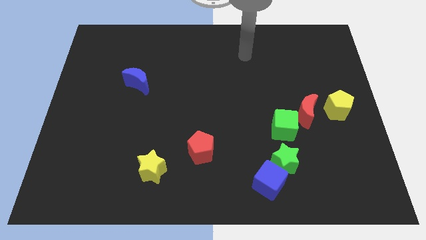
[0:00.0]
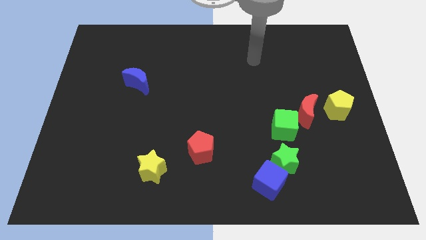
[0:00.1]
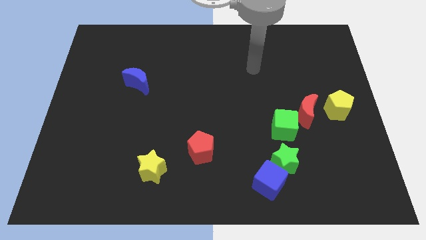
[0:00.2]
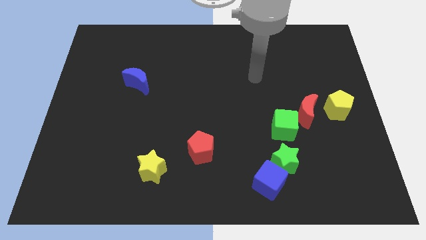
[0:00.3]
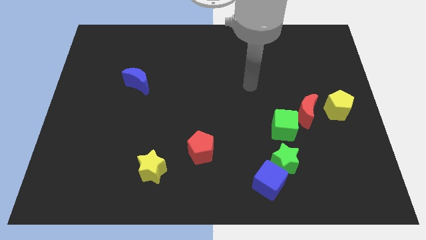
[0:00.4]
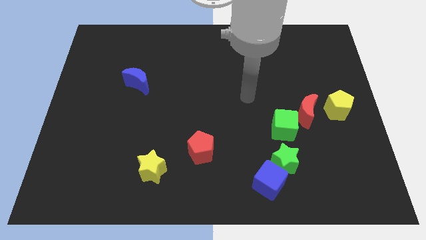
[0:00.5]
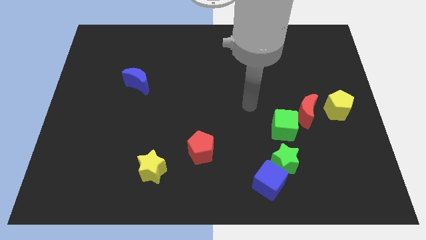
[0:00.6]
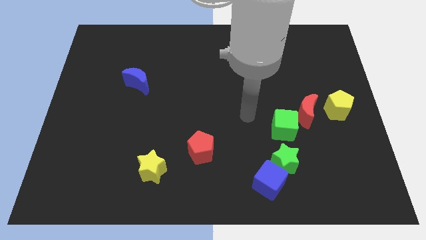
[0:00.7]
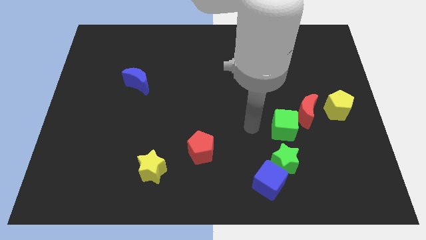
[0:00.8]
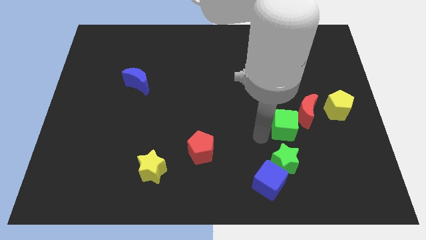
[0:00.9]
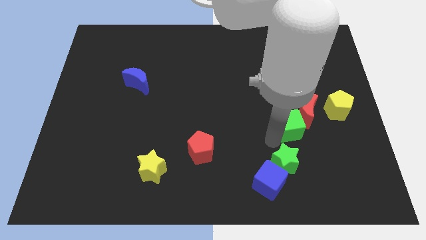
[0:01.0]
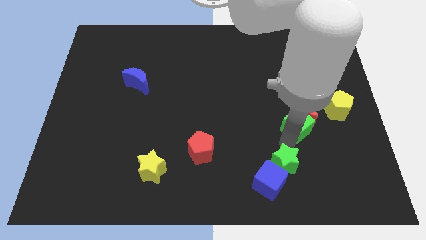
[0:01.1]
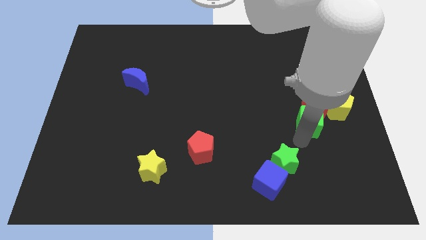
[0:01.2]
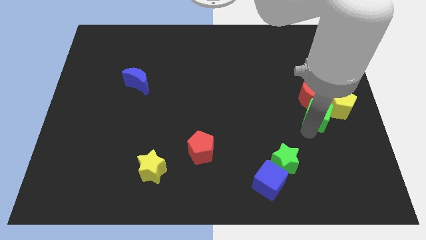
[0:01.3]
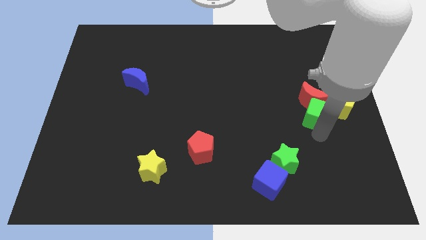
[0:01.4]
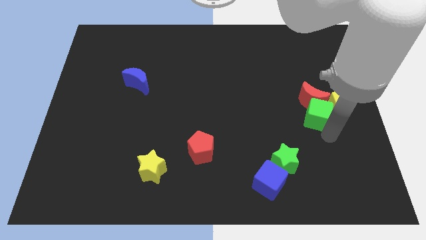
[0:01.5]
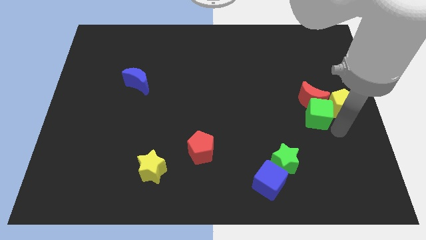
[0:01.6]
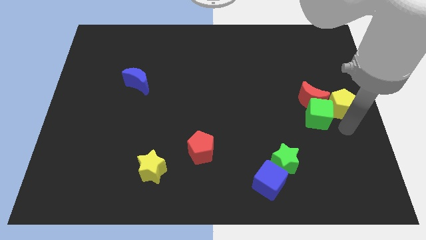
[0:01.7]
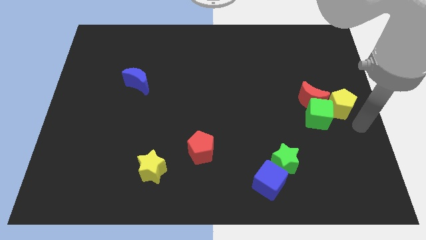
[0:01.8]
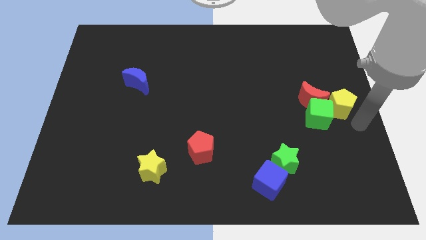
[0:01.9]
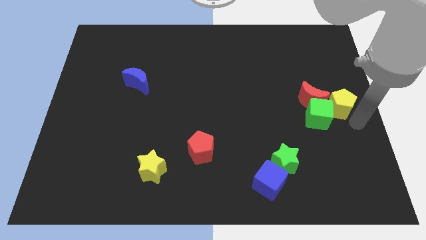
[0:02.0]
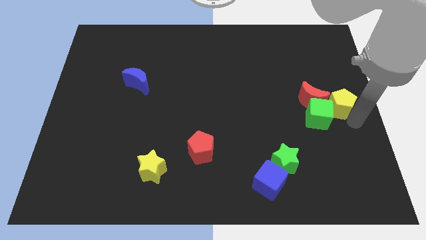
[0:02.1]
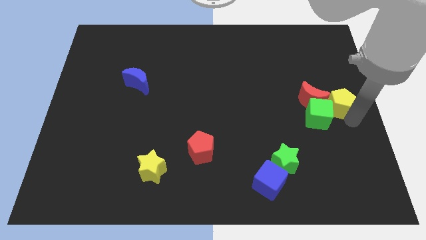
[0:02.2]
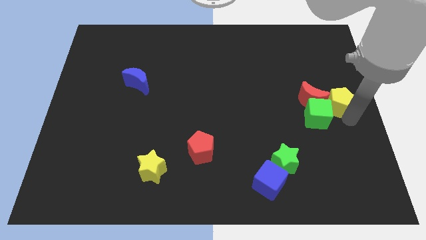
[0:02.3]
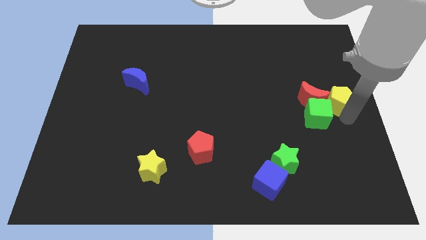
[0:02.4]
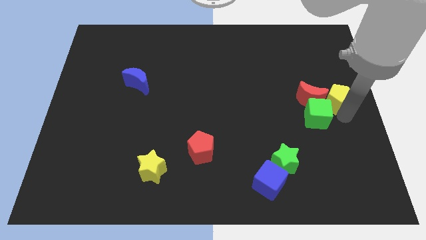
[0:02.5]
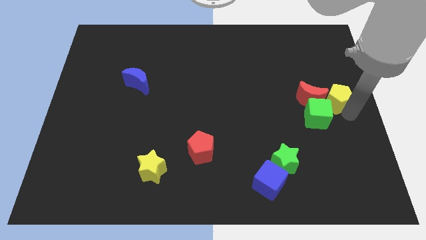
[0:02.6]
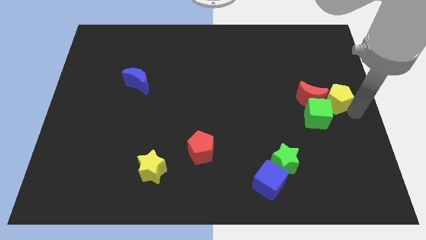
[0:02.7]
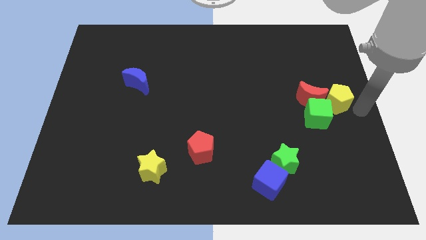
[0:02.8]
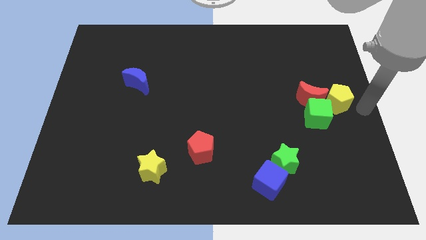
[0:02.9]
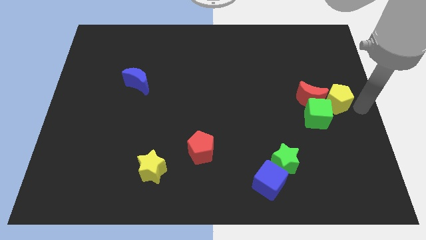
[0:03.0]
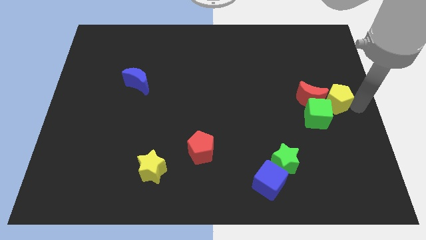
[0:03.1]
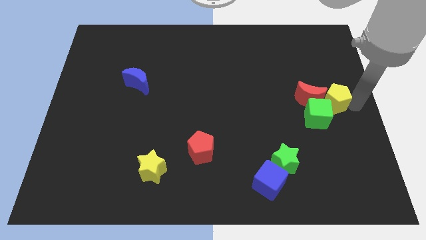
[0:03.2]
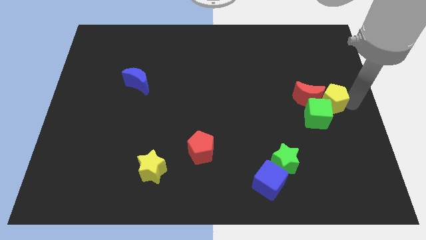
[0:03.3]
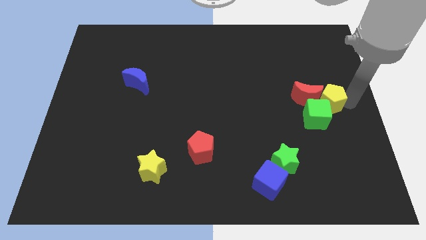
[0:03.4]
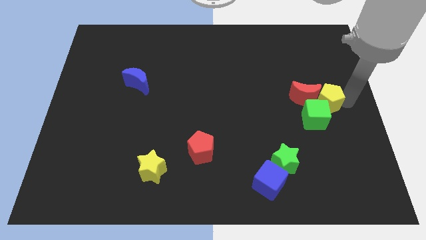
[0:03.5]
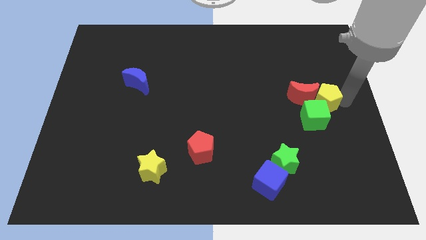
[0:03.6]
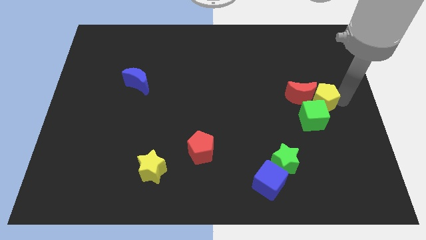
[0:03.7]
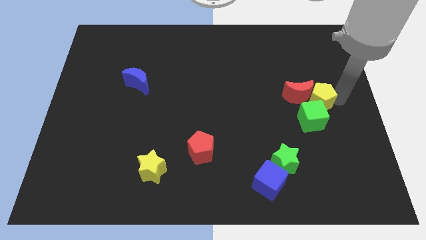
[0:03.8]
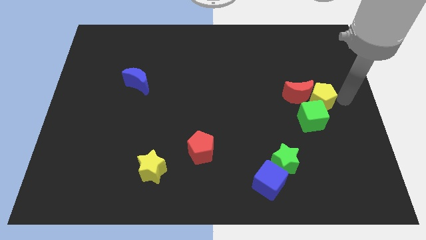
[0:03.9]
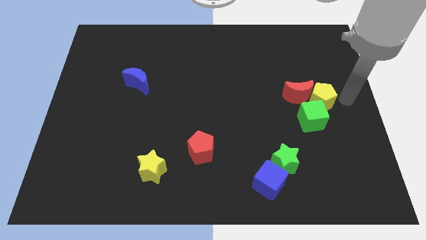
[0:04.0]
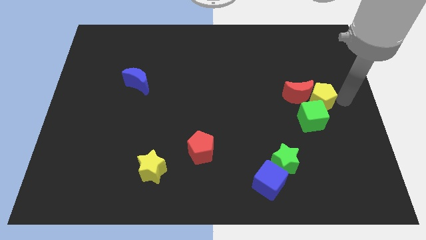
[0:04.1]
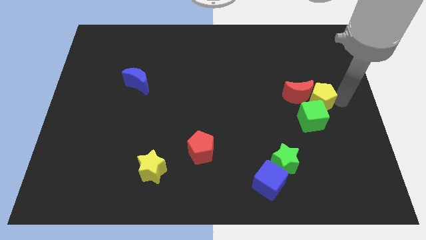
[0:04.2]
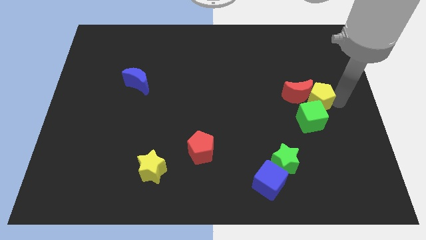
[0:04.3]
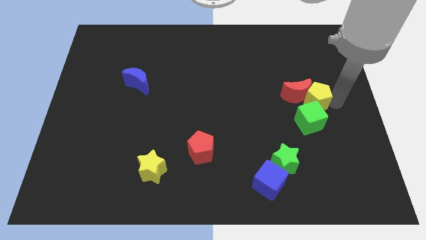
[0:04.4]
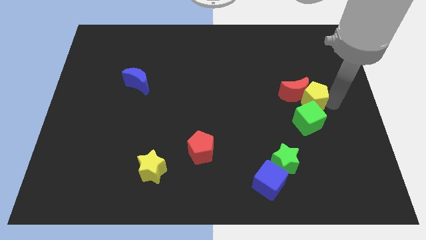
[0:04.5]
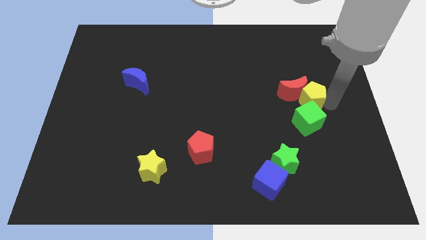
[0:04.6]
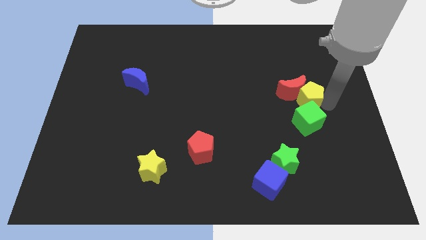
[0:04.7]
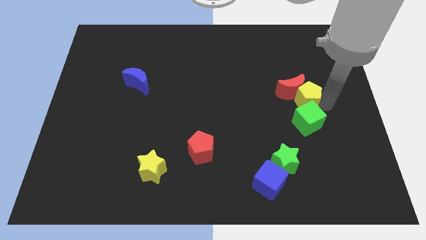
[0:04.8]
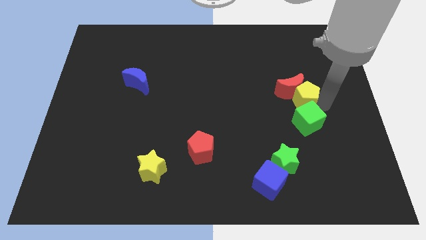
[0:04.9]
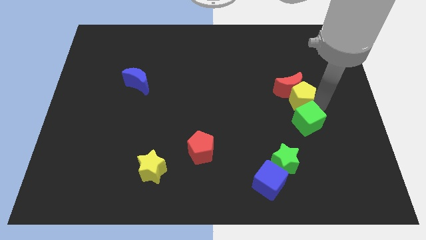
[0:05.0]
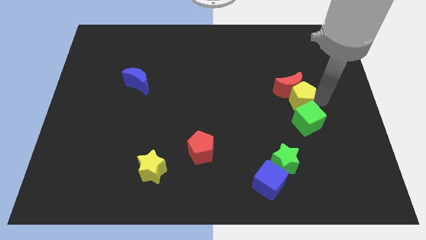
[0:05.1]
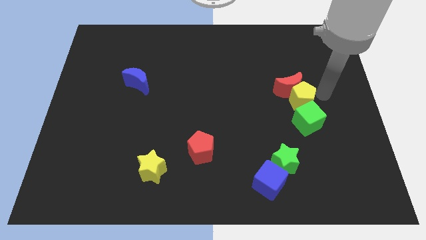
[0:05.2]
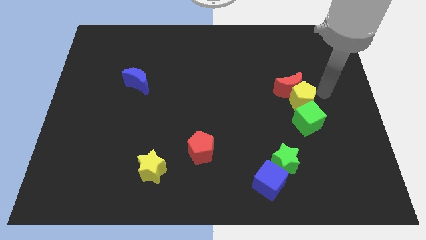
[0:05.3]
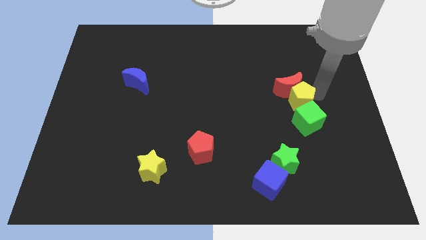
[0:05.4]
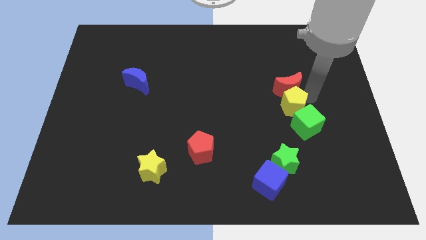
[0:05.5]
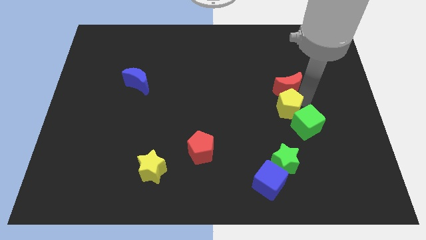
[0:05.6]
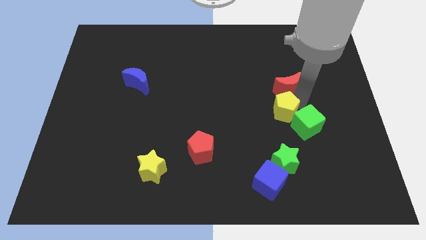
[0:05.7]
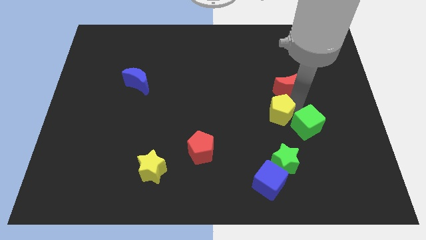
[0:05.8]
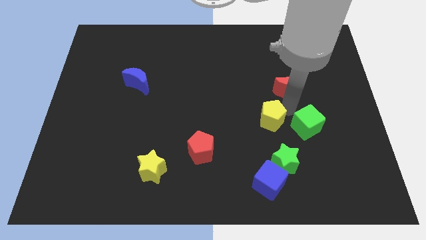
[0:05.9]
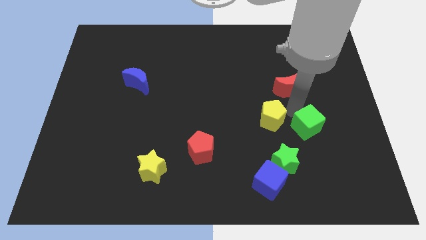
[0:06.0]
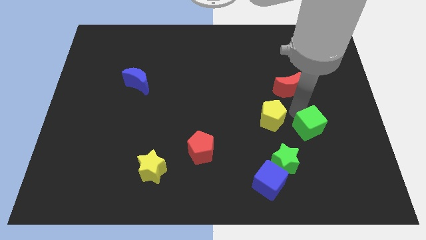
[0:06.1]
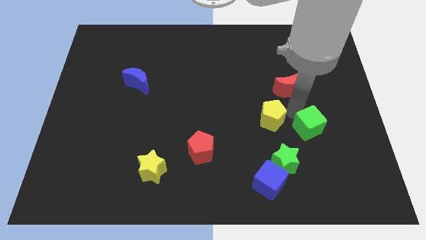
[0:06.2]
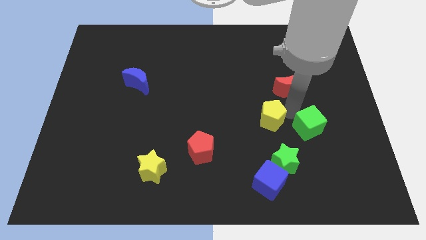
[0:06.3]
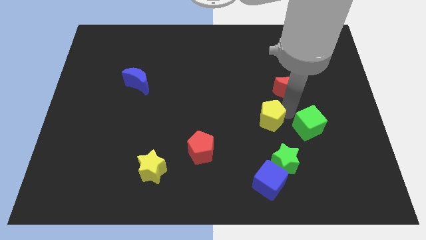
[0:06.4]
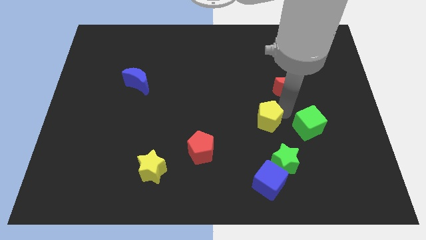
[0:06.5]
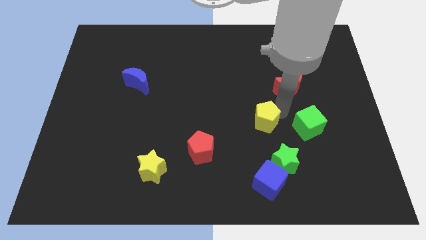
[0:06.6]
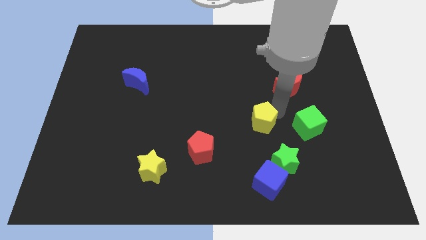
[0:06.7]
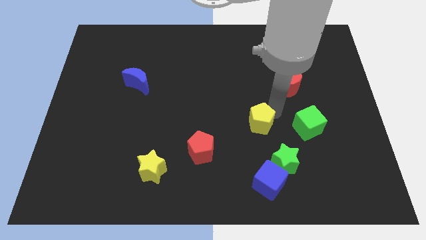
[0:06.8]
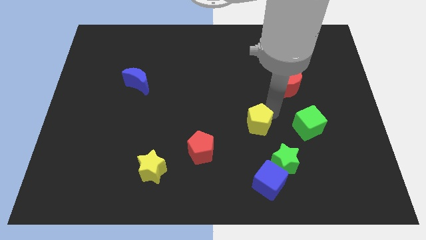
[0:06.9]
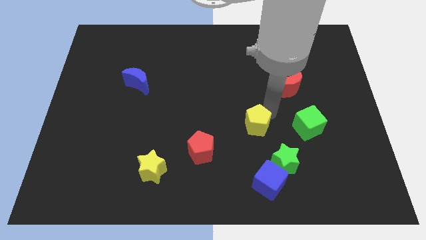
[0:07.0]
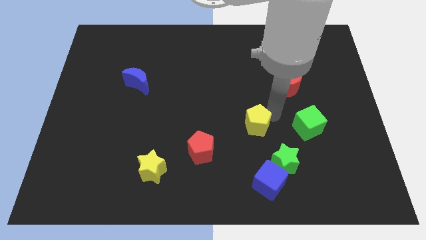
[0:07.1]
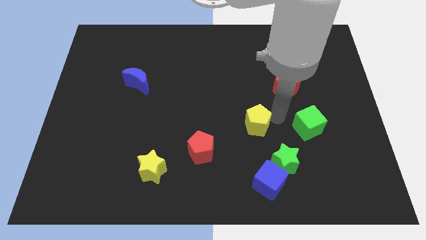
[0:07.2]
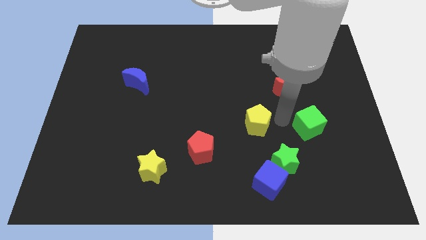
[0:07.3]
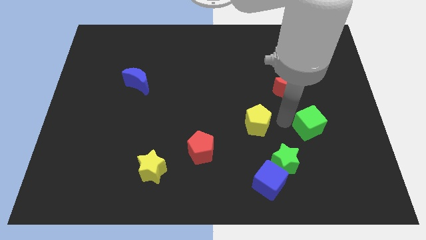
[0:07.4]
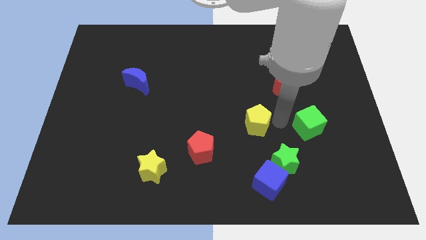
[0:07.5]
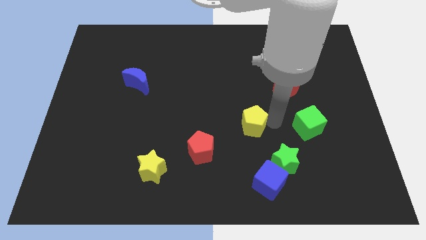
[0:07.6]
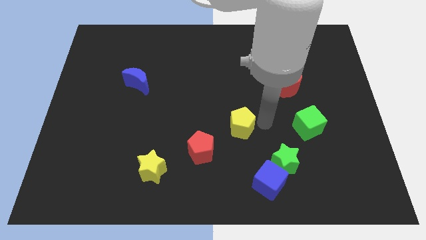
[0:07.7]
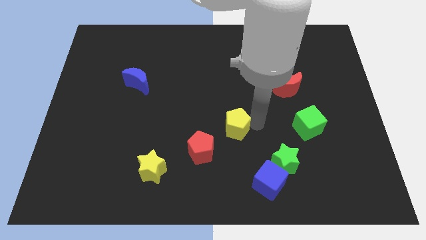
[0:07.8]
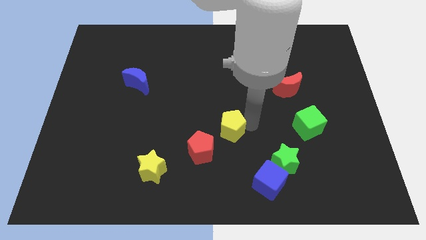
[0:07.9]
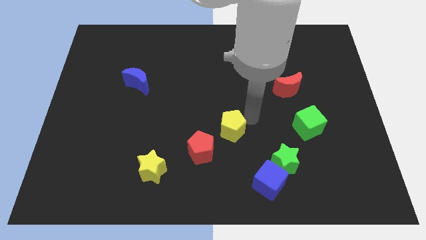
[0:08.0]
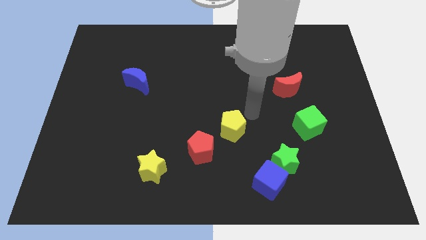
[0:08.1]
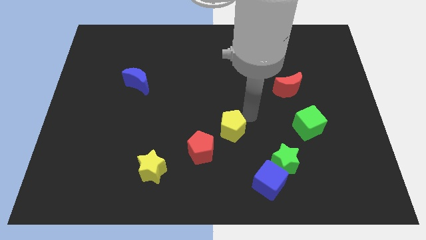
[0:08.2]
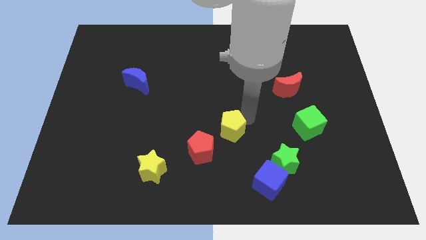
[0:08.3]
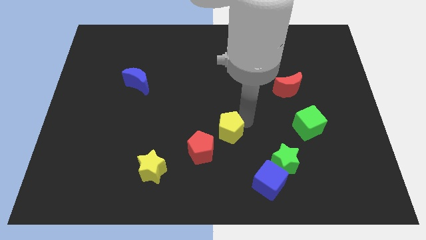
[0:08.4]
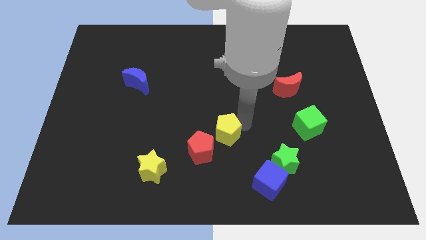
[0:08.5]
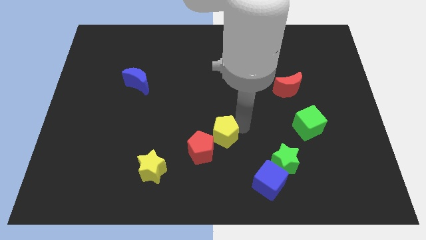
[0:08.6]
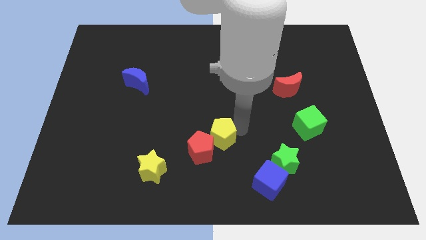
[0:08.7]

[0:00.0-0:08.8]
slide the yellow pentagon next to the red pentagon
